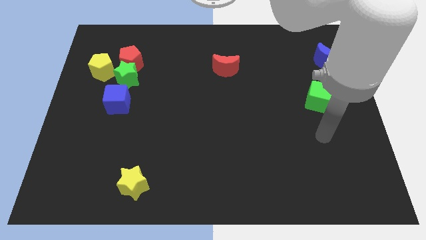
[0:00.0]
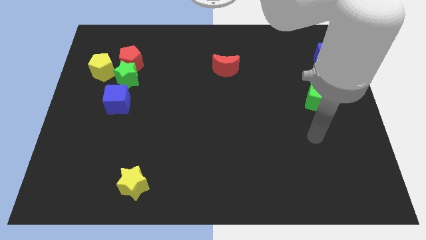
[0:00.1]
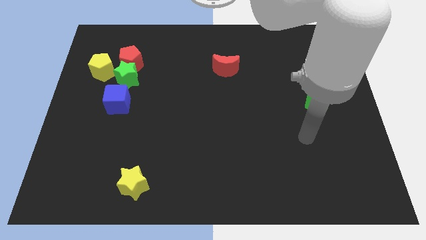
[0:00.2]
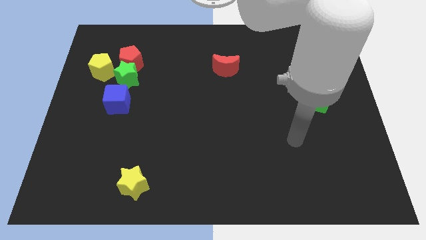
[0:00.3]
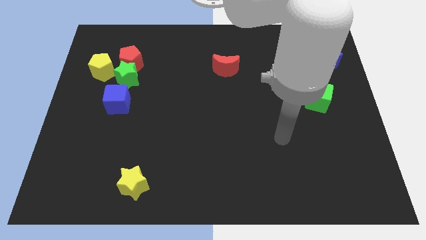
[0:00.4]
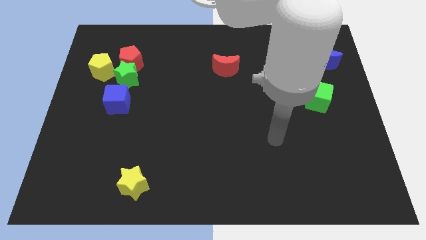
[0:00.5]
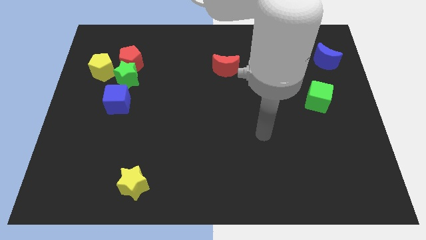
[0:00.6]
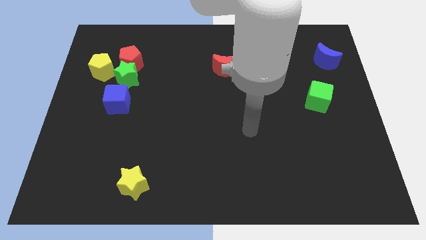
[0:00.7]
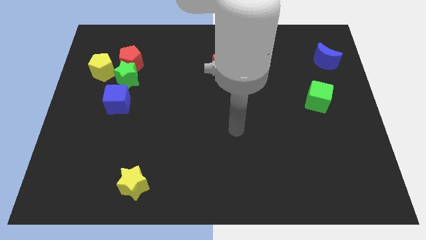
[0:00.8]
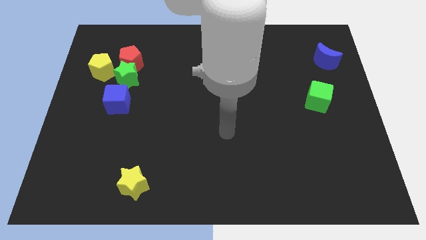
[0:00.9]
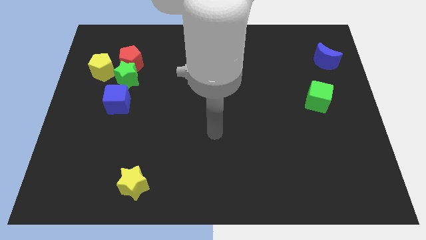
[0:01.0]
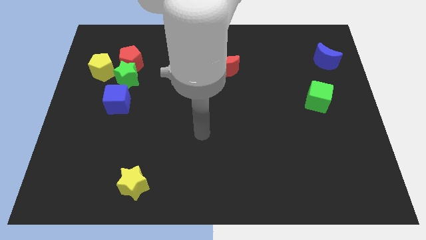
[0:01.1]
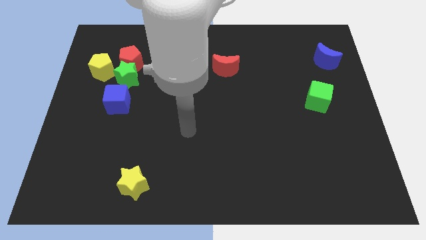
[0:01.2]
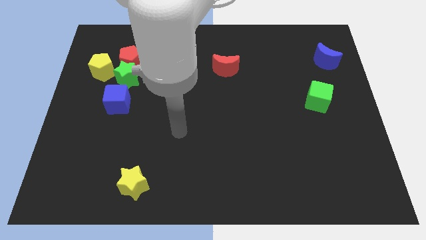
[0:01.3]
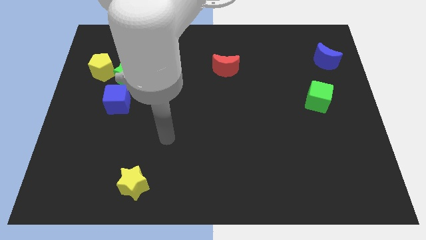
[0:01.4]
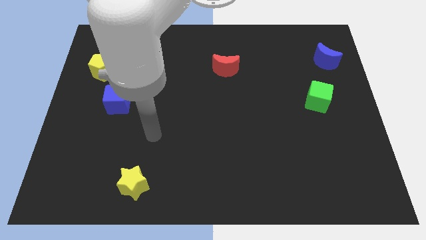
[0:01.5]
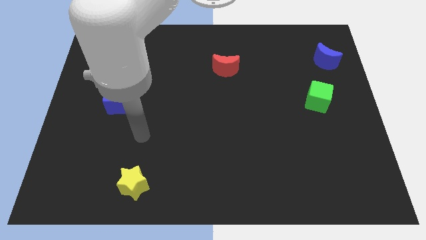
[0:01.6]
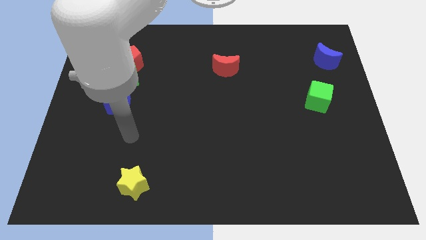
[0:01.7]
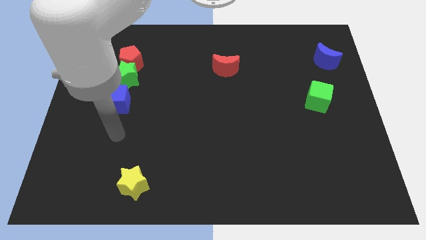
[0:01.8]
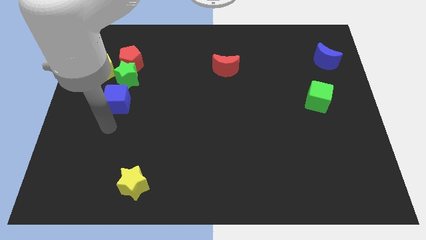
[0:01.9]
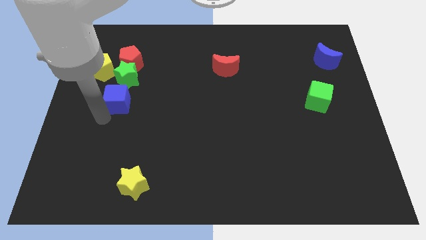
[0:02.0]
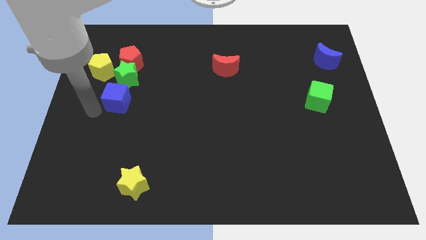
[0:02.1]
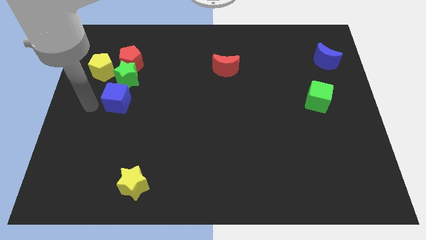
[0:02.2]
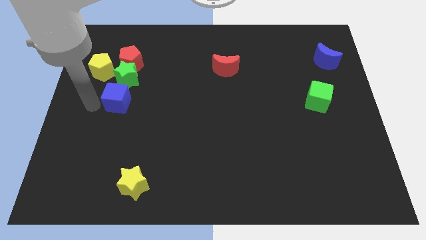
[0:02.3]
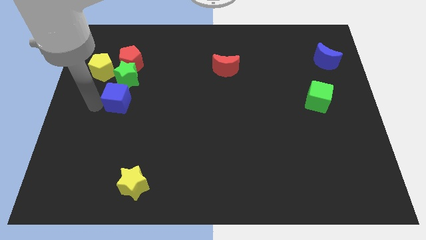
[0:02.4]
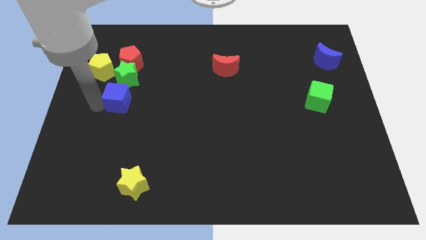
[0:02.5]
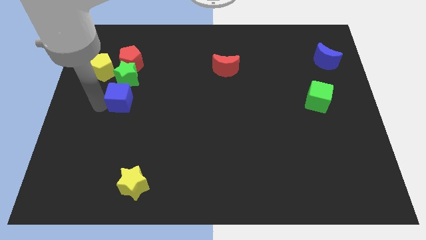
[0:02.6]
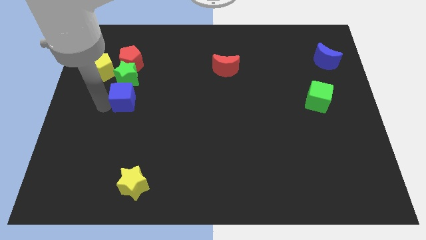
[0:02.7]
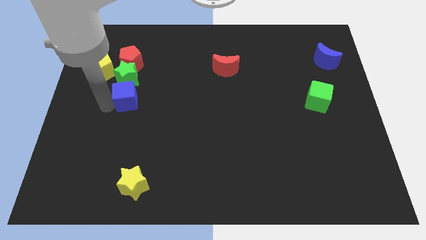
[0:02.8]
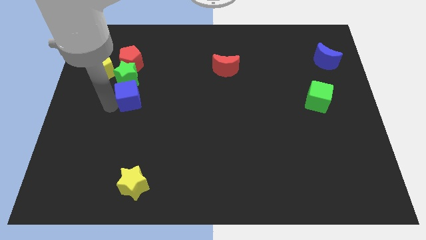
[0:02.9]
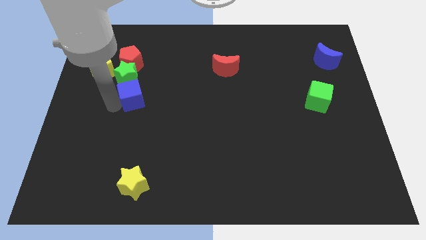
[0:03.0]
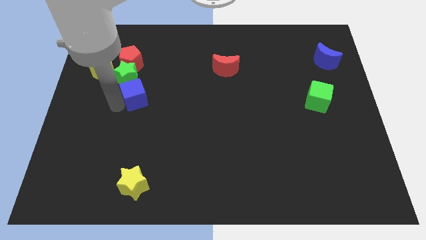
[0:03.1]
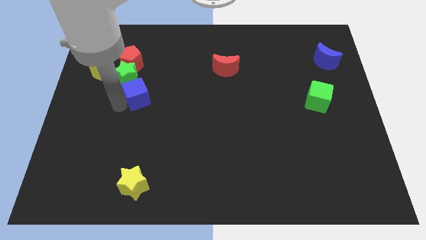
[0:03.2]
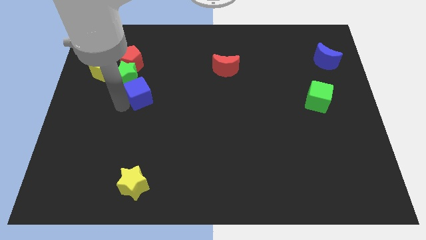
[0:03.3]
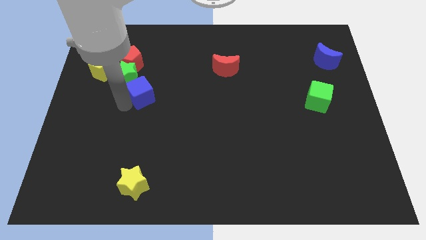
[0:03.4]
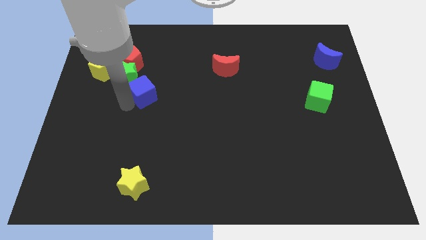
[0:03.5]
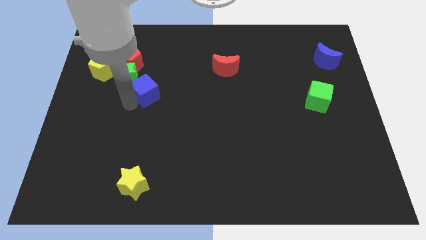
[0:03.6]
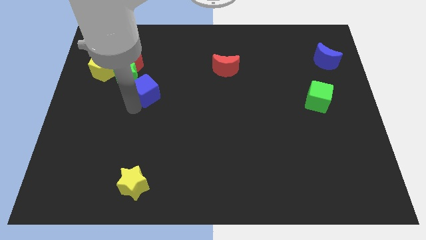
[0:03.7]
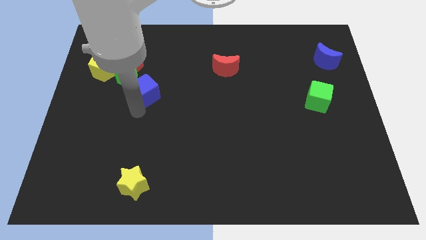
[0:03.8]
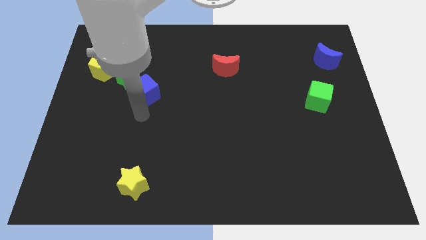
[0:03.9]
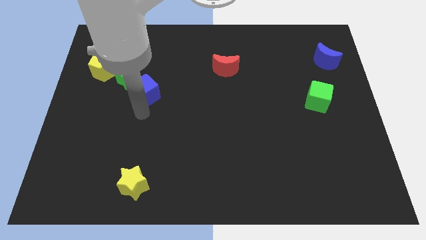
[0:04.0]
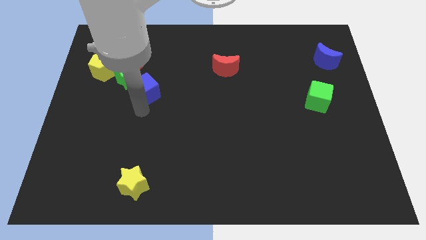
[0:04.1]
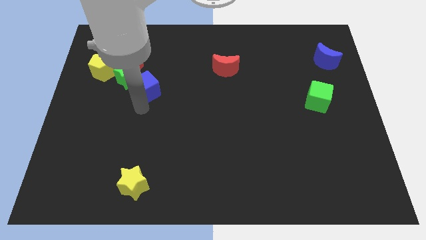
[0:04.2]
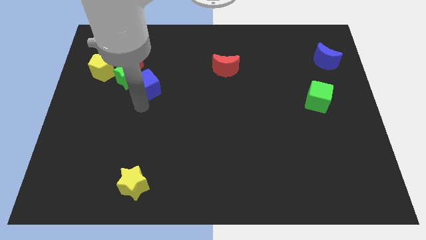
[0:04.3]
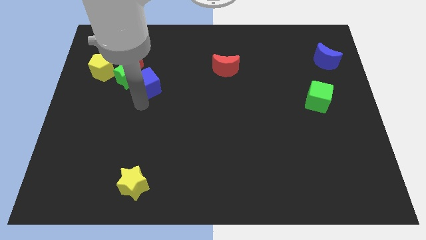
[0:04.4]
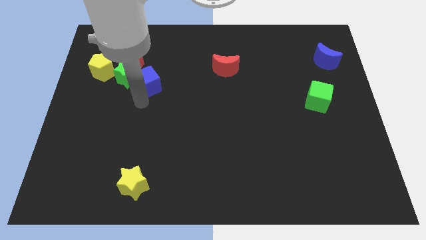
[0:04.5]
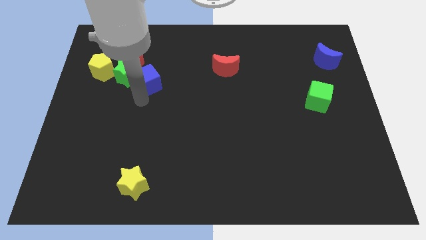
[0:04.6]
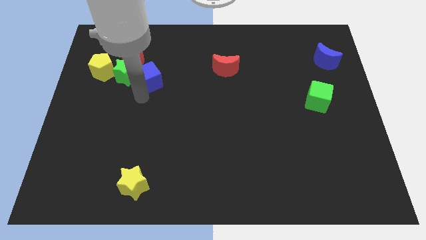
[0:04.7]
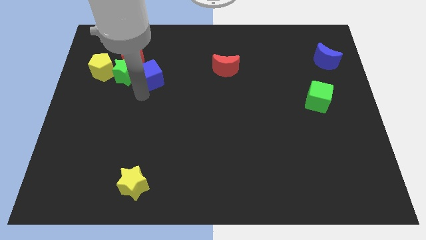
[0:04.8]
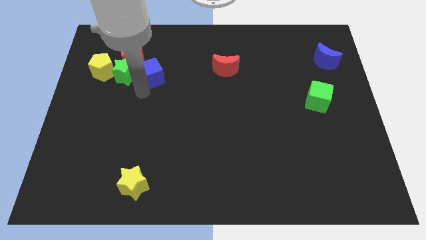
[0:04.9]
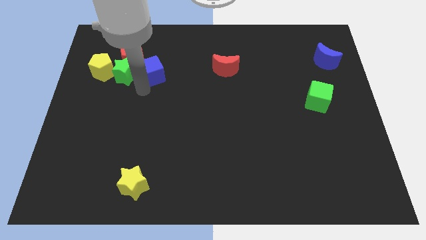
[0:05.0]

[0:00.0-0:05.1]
move the blue cube diagonally up and to the right of the green star

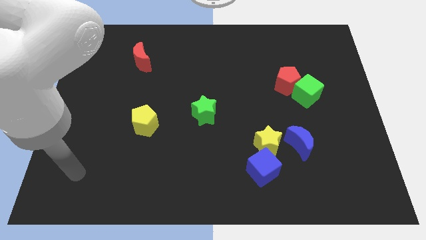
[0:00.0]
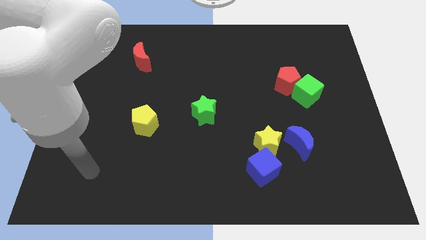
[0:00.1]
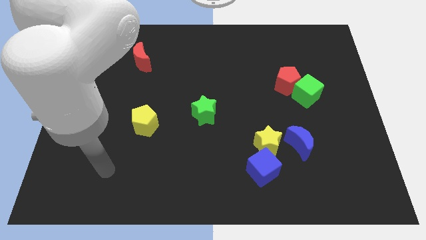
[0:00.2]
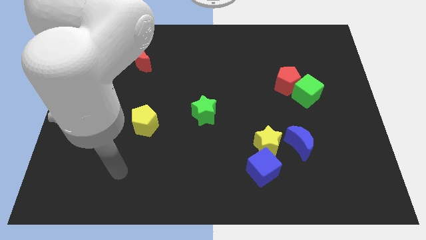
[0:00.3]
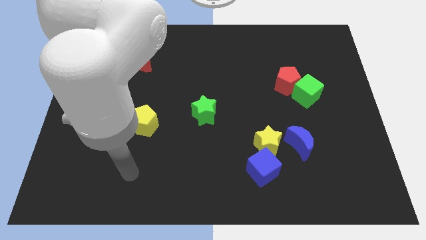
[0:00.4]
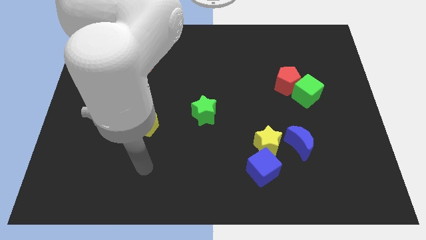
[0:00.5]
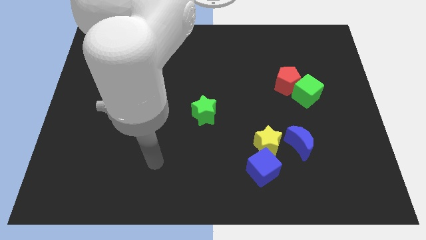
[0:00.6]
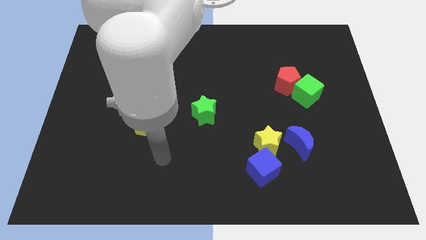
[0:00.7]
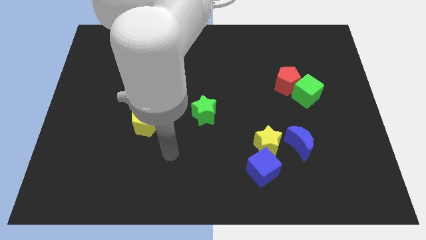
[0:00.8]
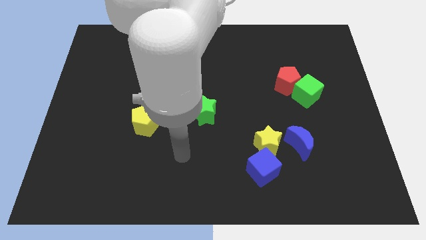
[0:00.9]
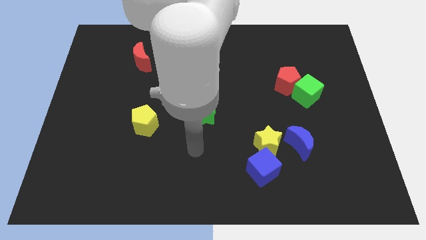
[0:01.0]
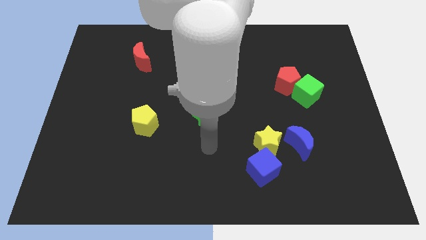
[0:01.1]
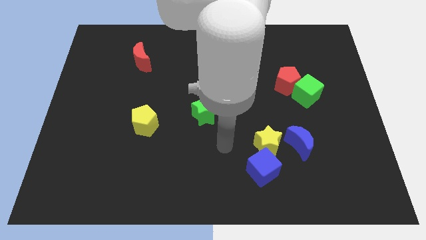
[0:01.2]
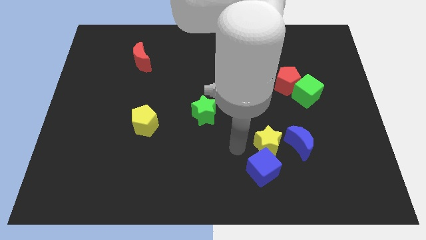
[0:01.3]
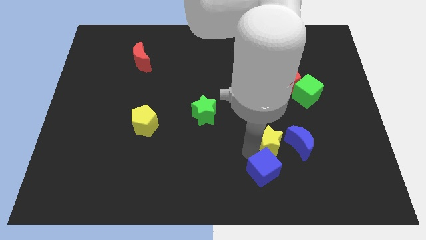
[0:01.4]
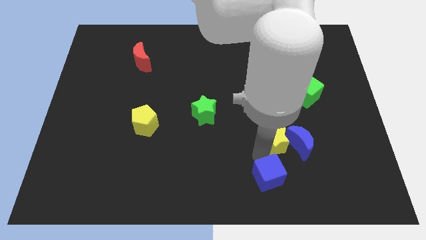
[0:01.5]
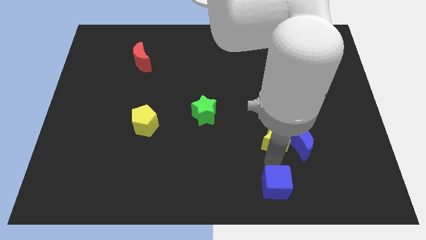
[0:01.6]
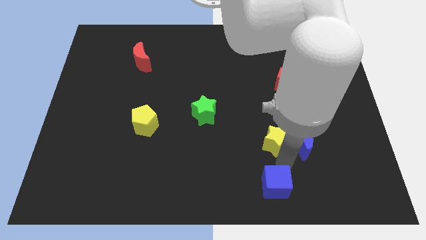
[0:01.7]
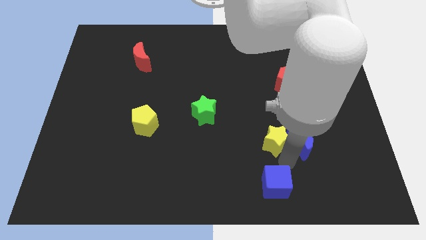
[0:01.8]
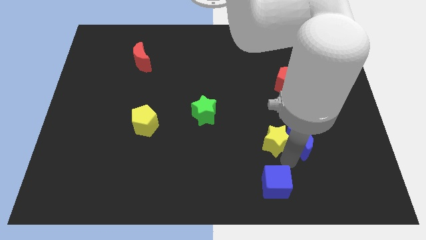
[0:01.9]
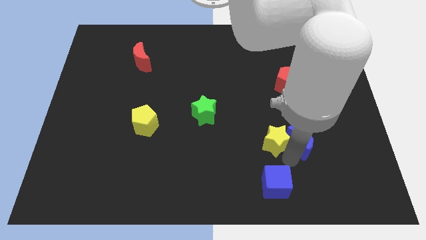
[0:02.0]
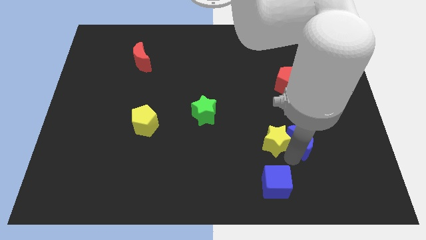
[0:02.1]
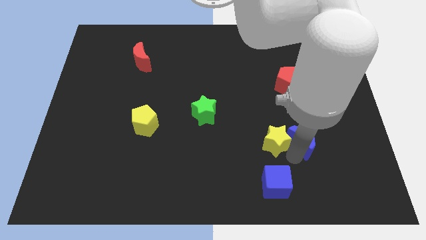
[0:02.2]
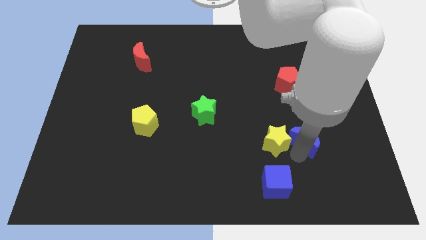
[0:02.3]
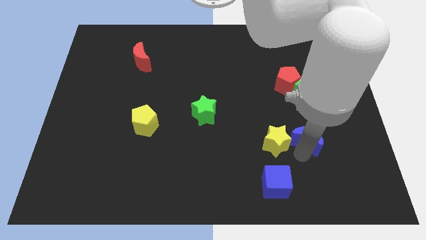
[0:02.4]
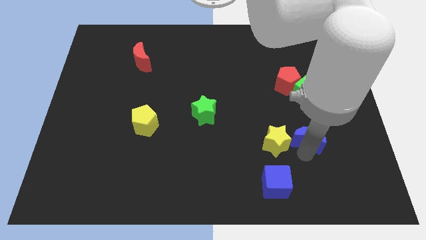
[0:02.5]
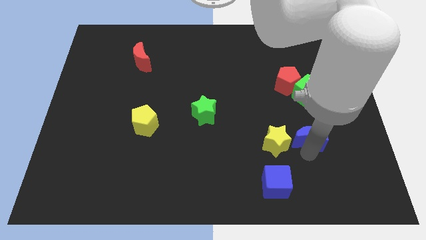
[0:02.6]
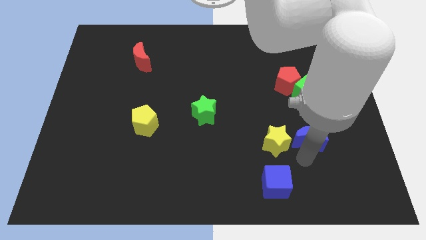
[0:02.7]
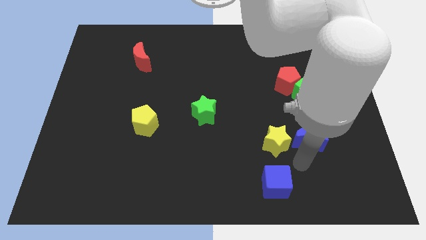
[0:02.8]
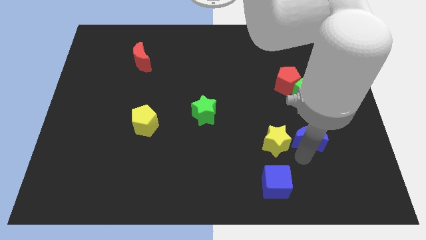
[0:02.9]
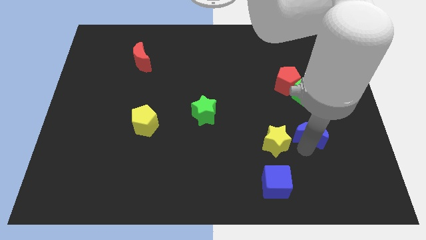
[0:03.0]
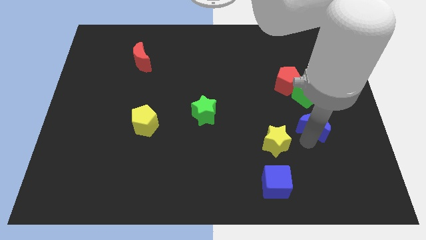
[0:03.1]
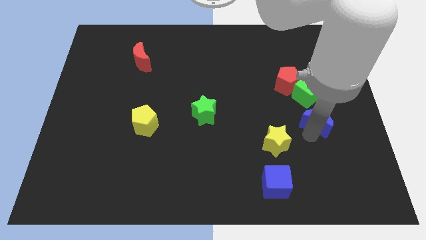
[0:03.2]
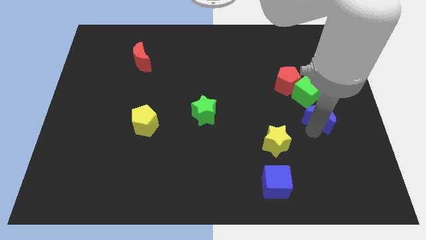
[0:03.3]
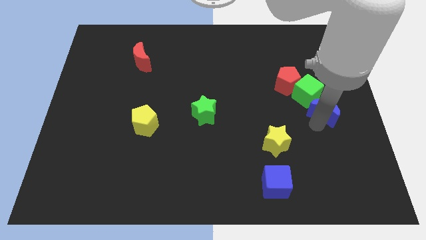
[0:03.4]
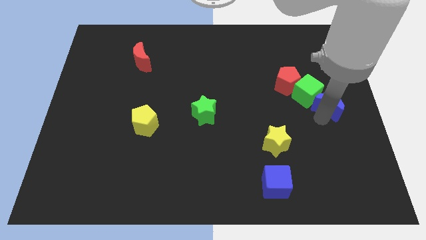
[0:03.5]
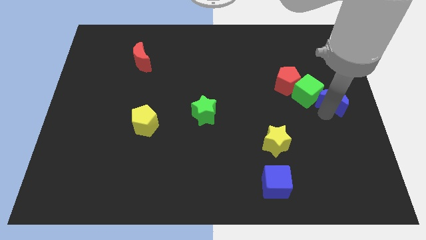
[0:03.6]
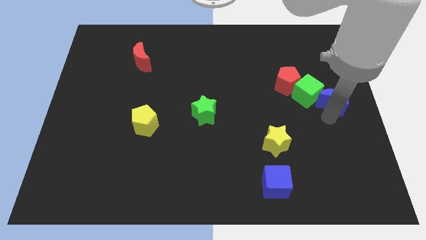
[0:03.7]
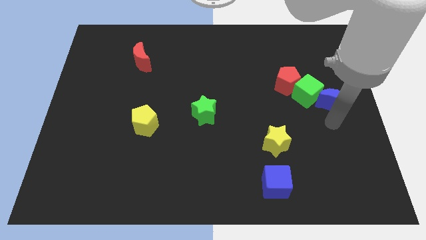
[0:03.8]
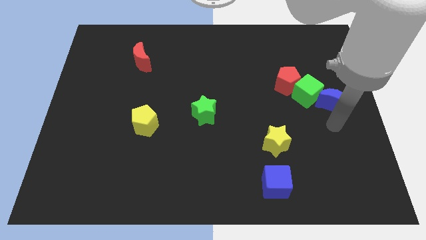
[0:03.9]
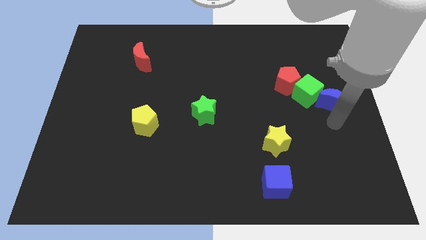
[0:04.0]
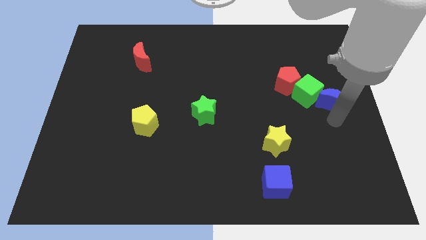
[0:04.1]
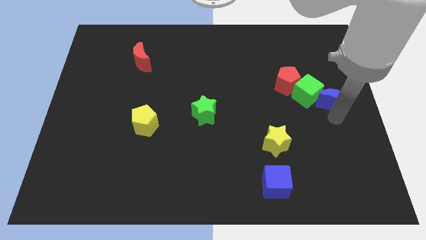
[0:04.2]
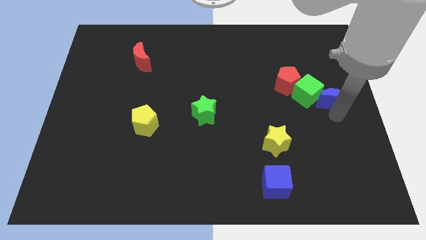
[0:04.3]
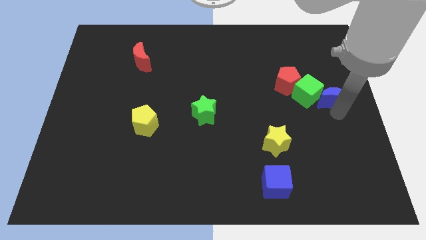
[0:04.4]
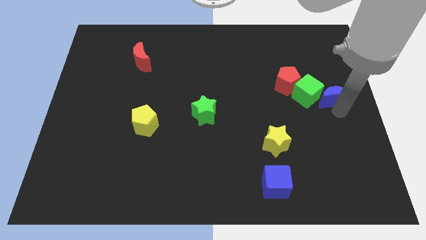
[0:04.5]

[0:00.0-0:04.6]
put the blue moon right of the red pentagon
